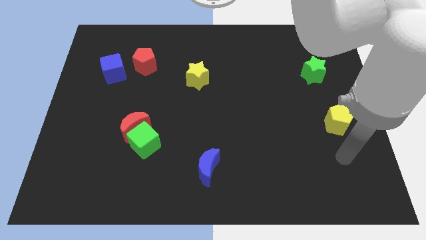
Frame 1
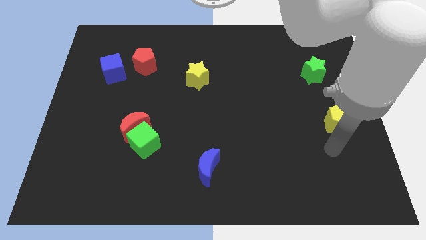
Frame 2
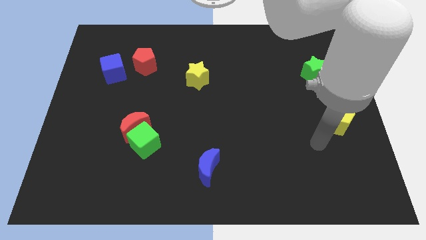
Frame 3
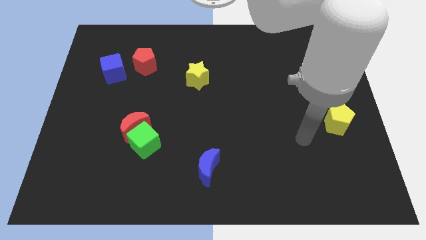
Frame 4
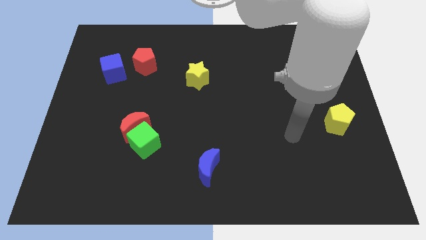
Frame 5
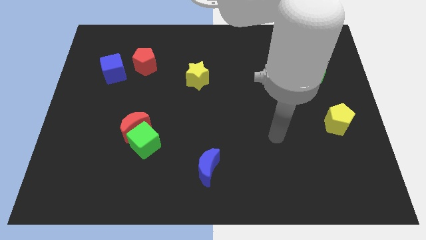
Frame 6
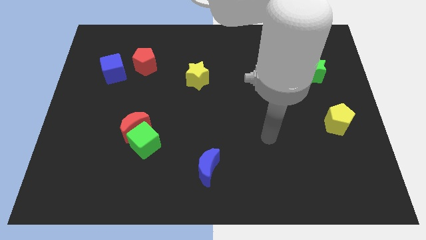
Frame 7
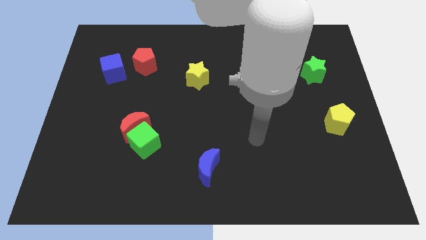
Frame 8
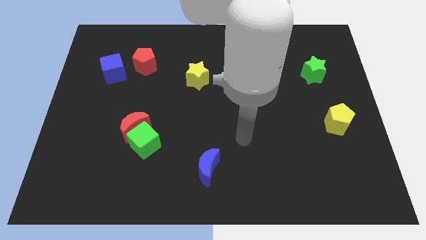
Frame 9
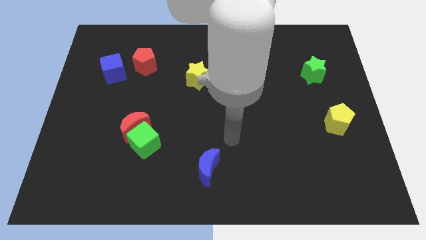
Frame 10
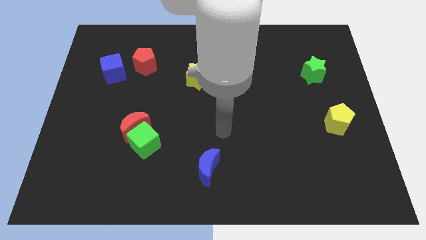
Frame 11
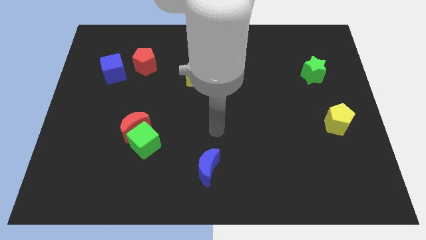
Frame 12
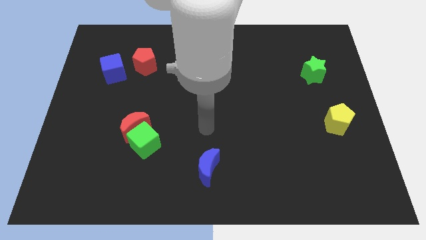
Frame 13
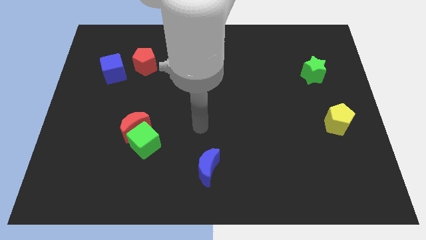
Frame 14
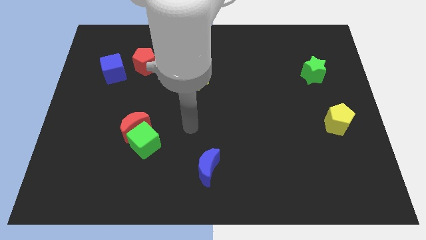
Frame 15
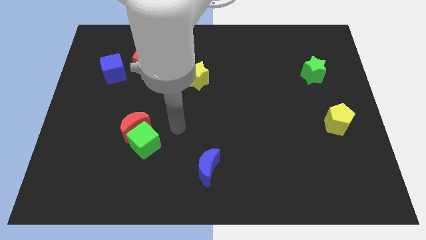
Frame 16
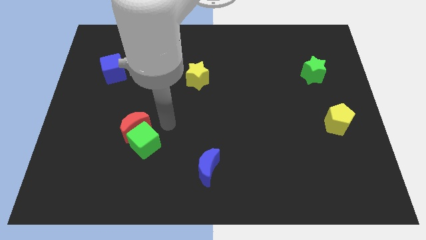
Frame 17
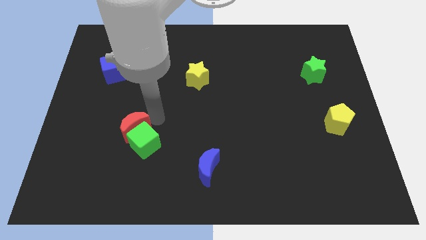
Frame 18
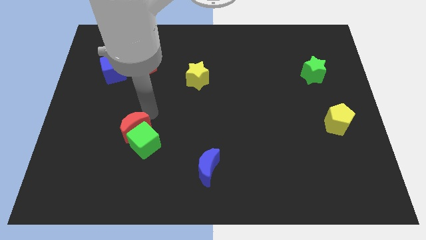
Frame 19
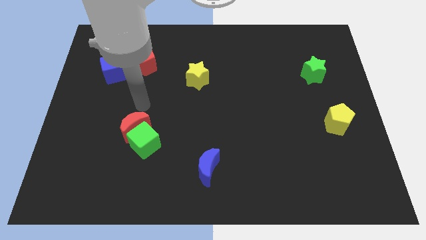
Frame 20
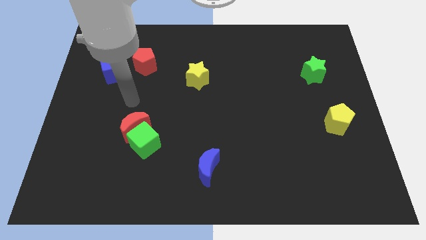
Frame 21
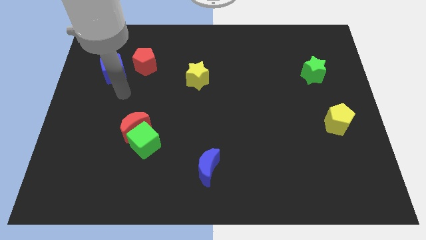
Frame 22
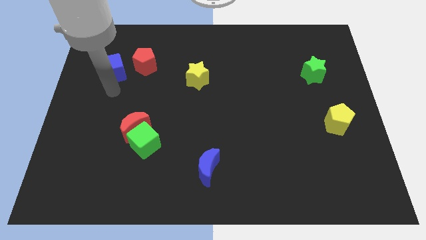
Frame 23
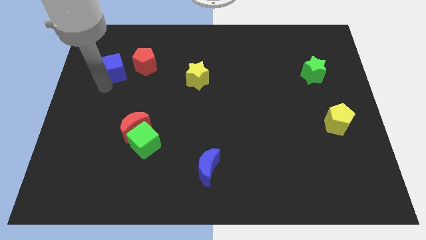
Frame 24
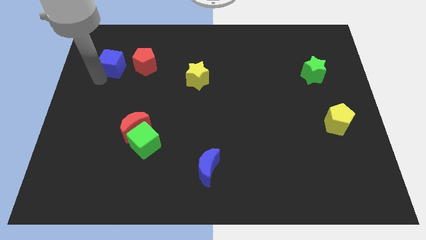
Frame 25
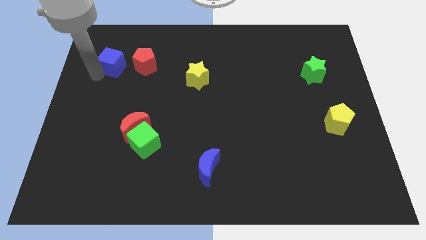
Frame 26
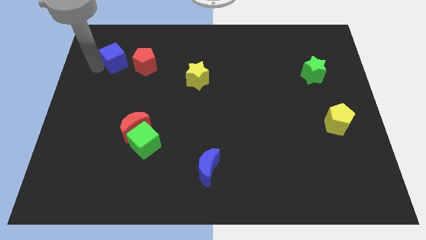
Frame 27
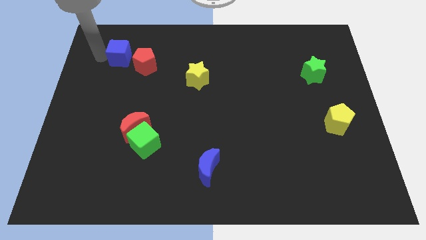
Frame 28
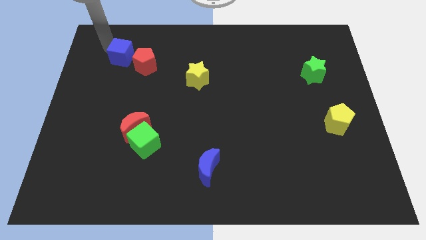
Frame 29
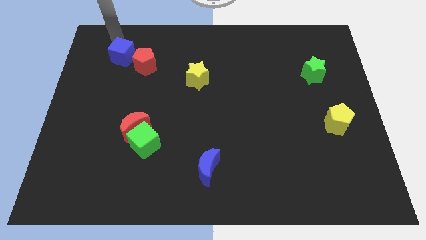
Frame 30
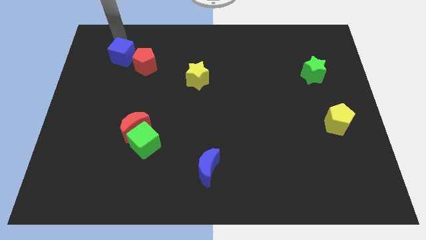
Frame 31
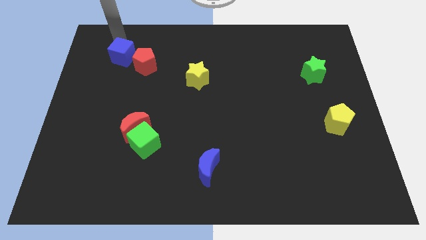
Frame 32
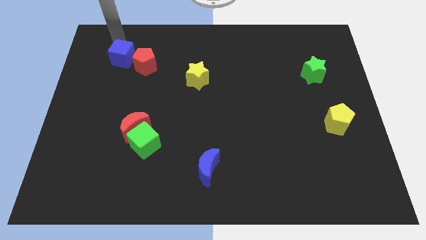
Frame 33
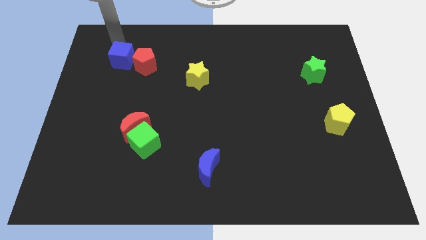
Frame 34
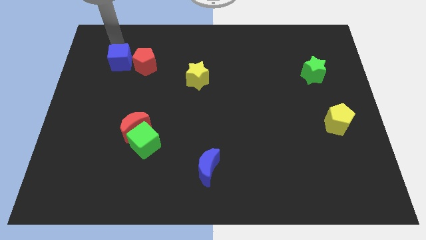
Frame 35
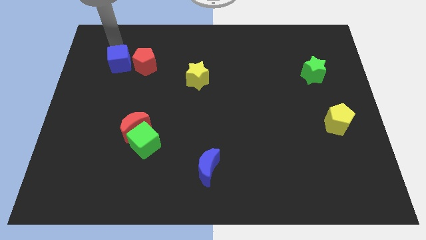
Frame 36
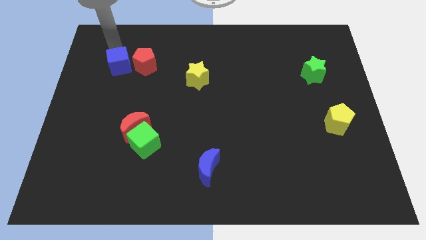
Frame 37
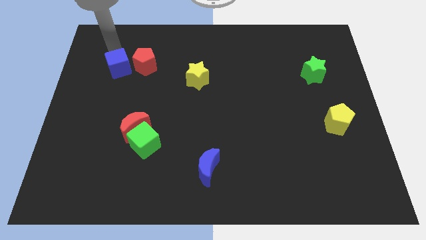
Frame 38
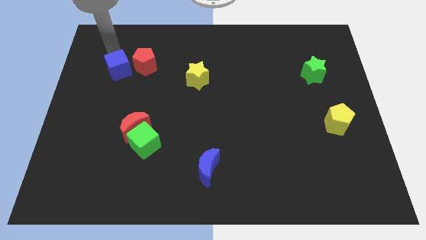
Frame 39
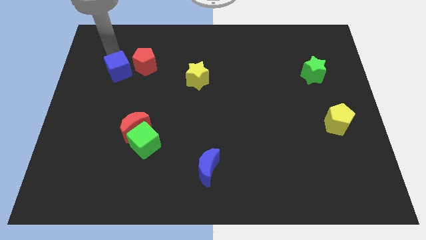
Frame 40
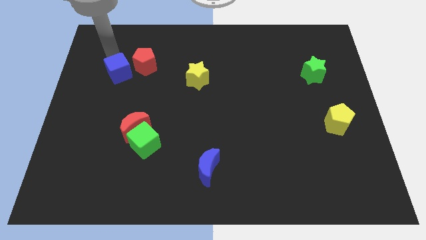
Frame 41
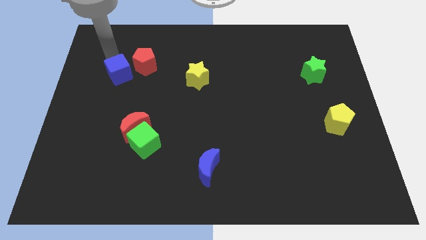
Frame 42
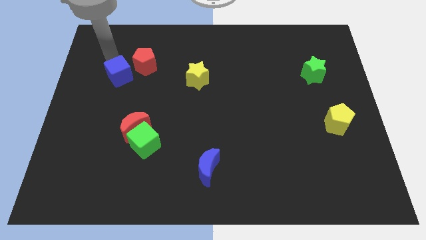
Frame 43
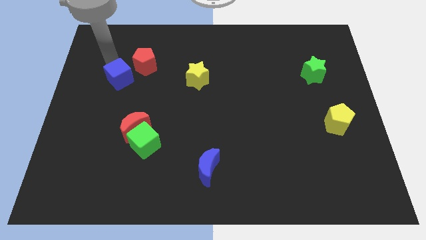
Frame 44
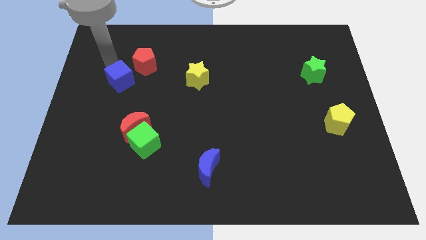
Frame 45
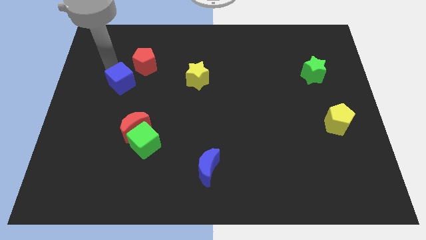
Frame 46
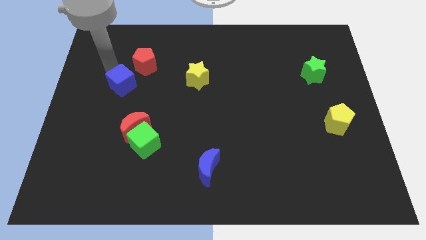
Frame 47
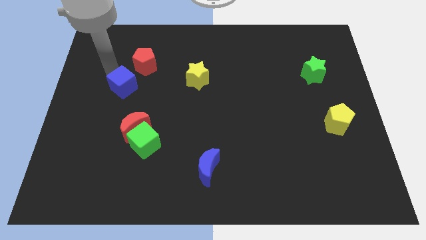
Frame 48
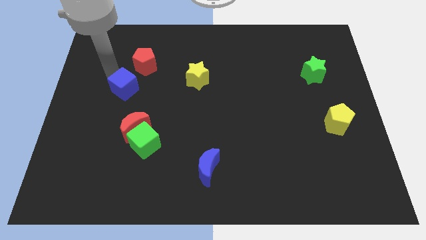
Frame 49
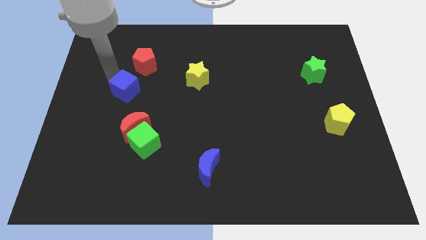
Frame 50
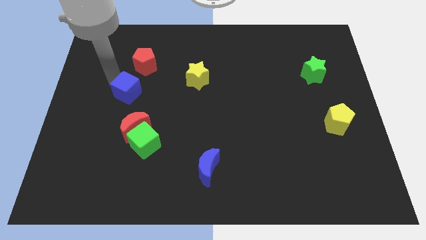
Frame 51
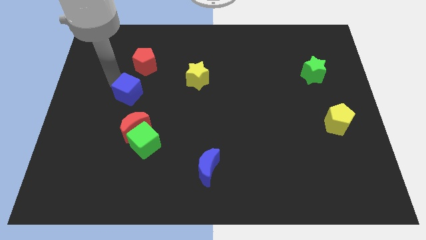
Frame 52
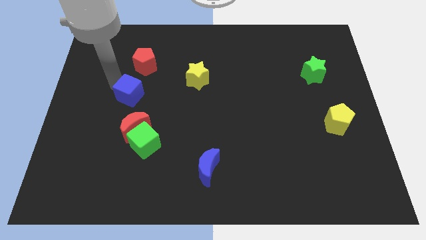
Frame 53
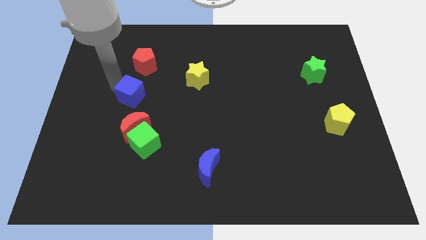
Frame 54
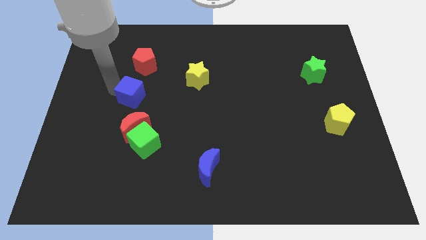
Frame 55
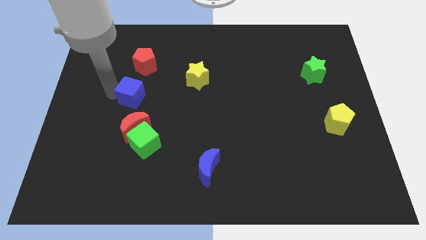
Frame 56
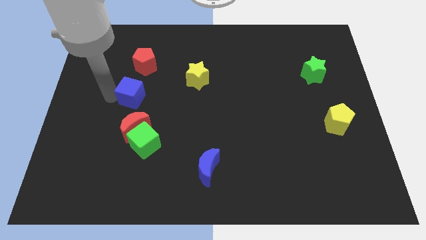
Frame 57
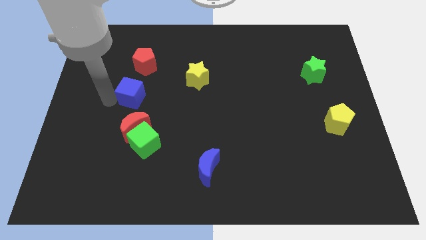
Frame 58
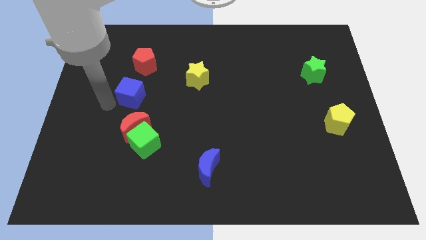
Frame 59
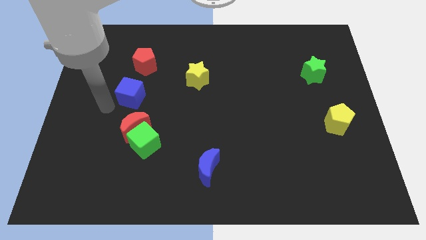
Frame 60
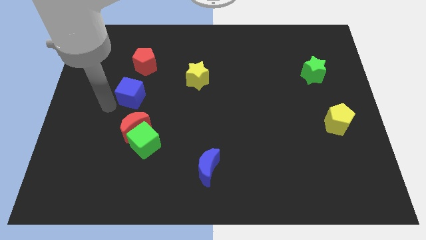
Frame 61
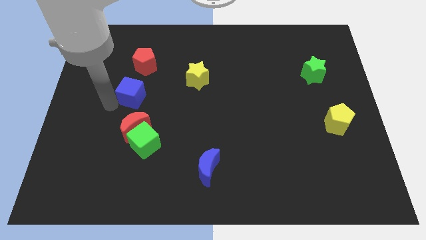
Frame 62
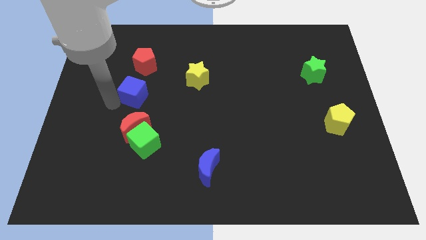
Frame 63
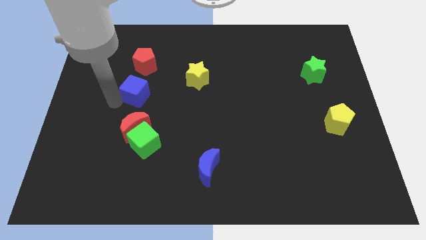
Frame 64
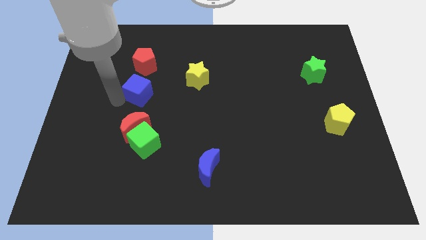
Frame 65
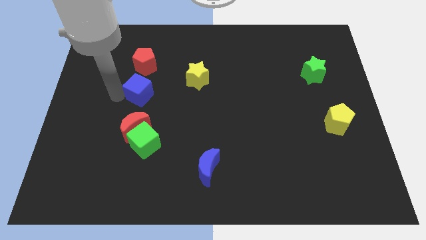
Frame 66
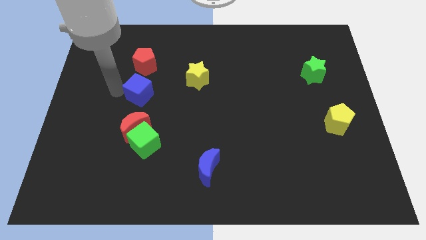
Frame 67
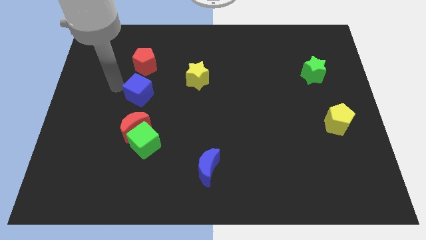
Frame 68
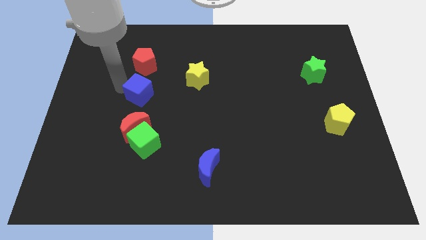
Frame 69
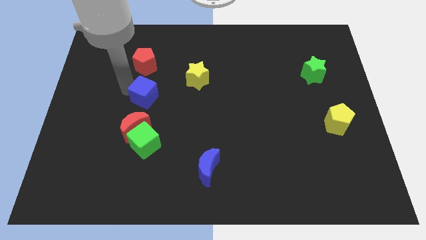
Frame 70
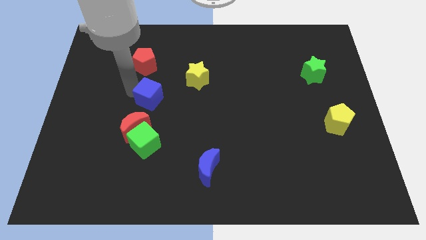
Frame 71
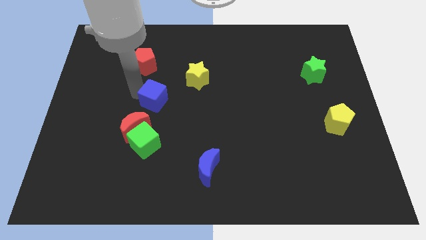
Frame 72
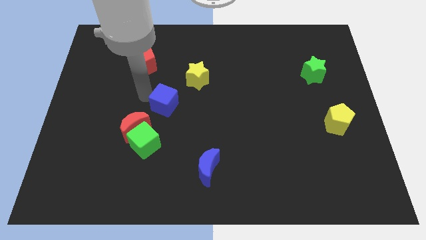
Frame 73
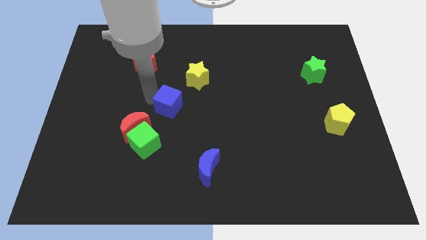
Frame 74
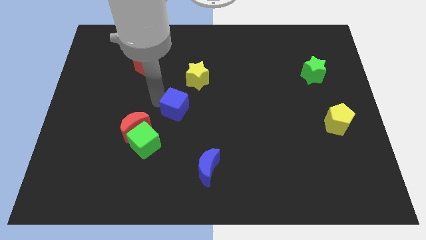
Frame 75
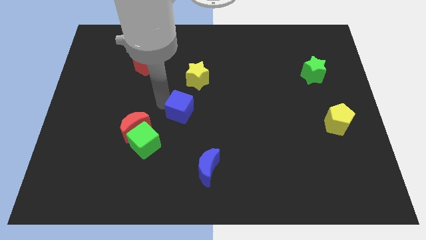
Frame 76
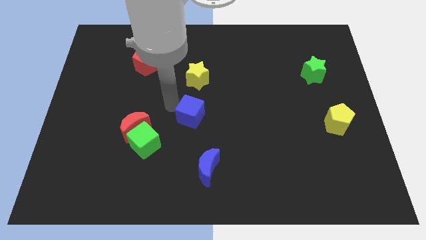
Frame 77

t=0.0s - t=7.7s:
push the blue cube to the top of the blue moon
